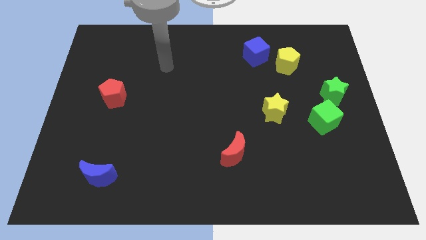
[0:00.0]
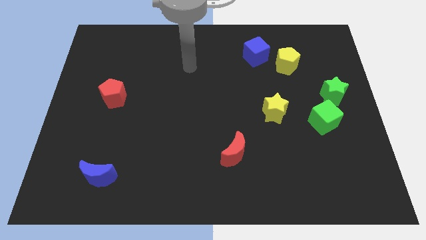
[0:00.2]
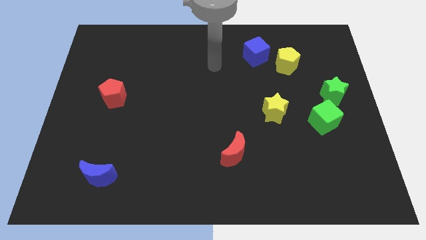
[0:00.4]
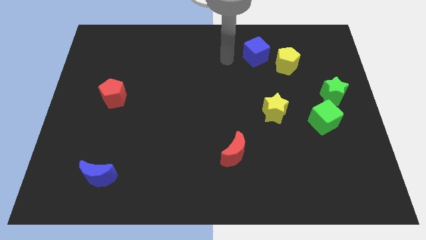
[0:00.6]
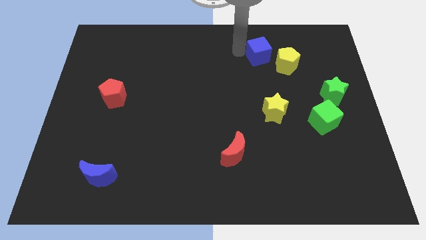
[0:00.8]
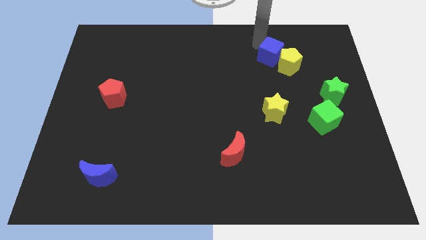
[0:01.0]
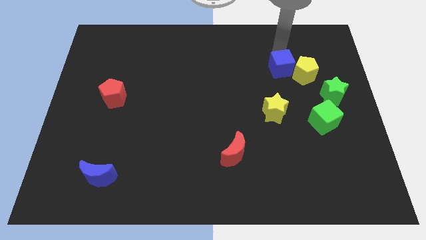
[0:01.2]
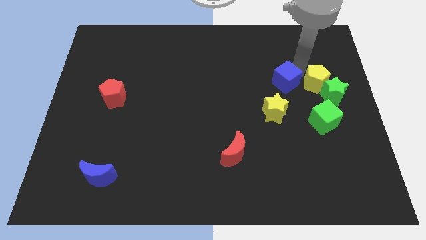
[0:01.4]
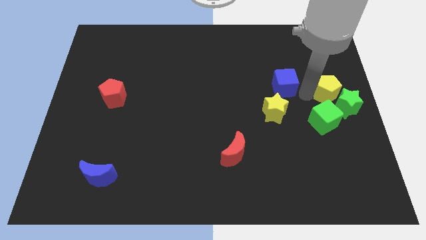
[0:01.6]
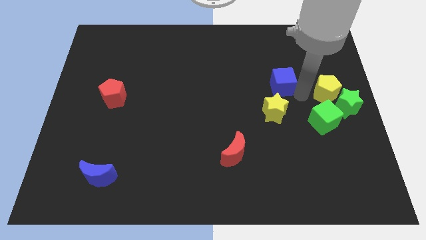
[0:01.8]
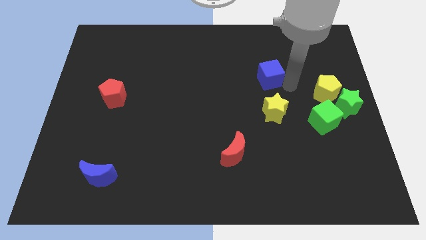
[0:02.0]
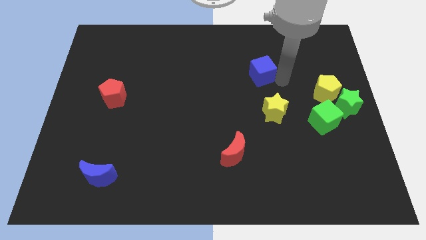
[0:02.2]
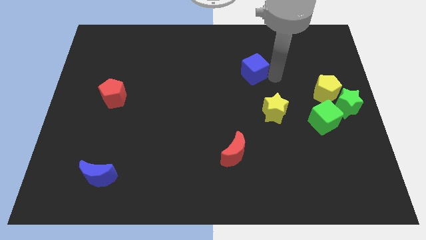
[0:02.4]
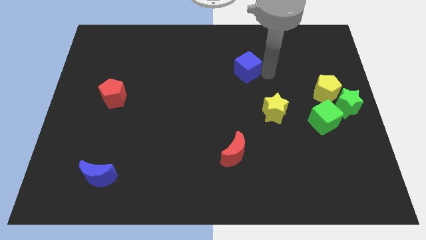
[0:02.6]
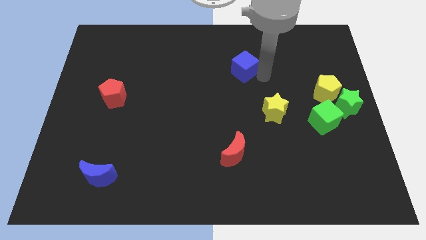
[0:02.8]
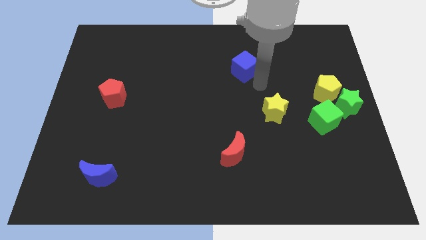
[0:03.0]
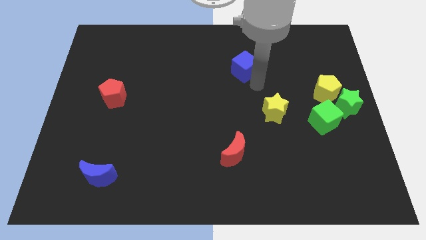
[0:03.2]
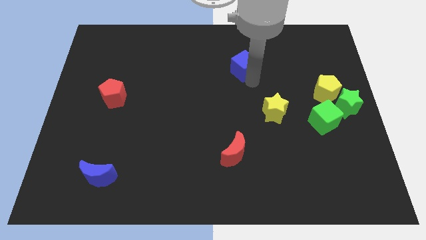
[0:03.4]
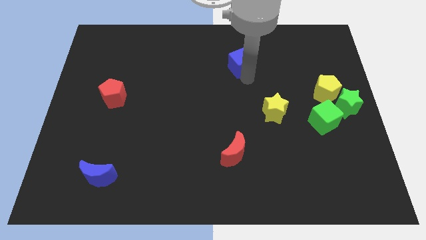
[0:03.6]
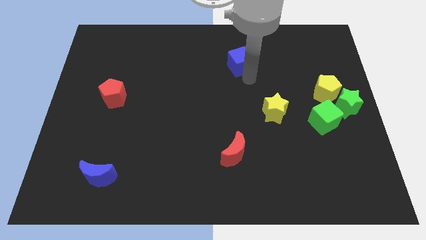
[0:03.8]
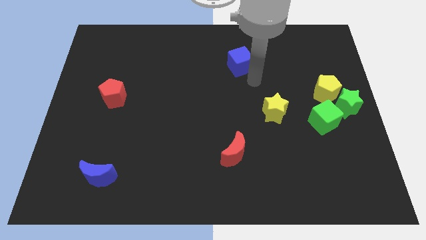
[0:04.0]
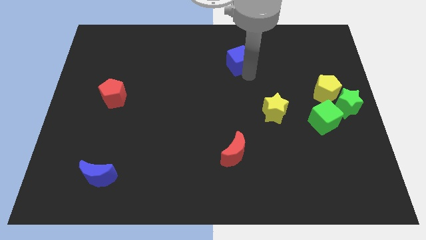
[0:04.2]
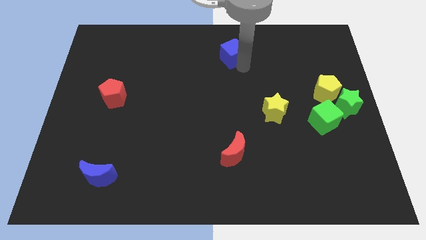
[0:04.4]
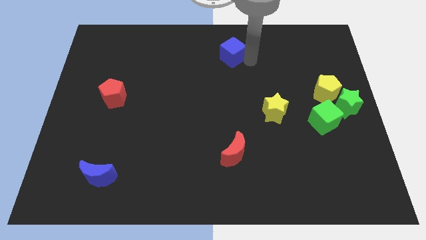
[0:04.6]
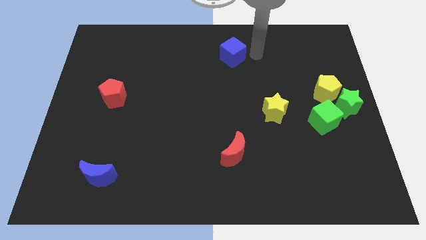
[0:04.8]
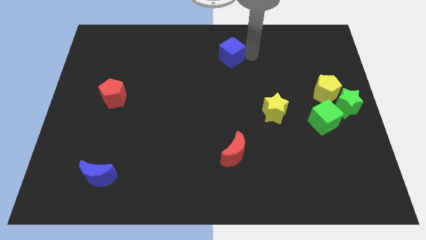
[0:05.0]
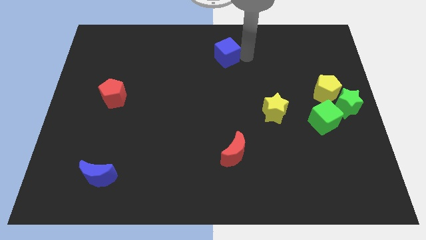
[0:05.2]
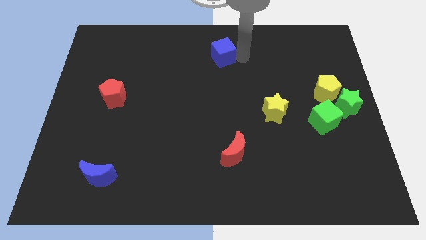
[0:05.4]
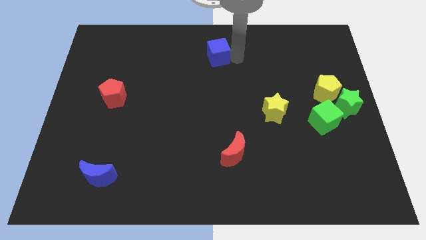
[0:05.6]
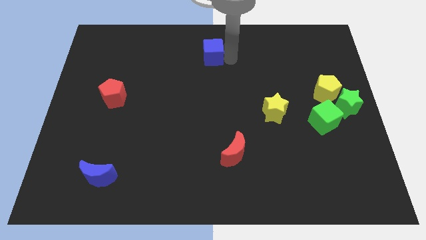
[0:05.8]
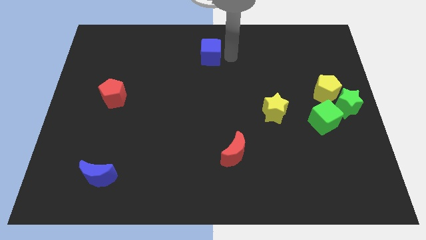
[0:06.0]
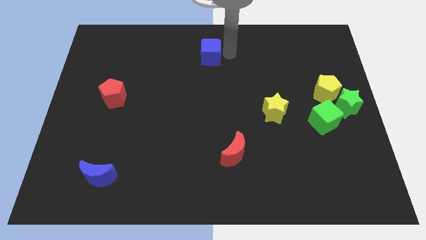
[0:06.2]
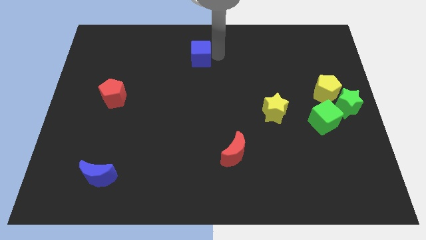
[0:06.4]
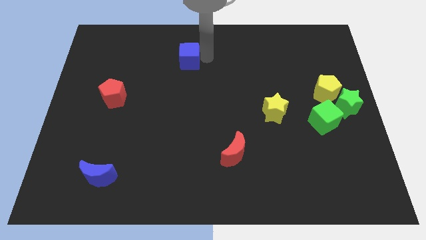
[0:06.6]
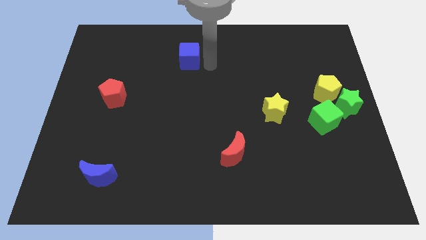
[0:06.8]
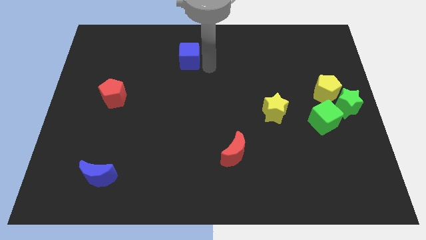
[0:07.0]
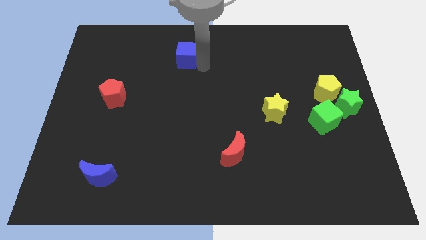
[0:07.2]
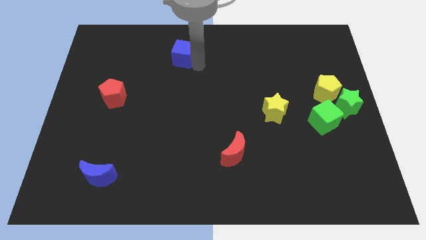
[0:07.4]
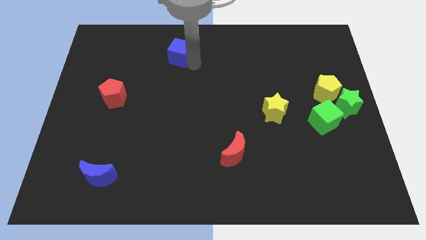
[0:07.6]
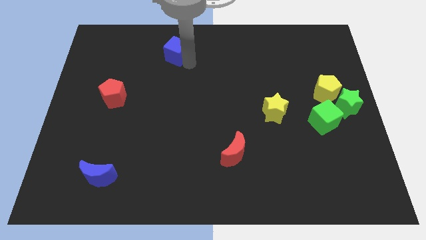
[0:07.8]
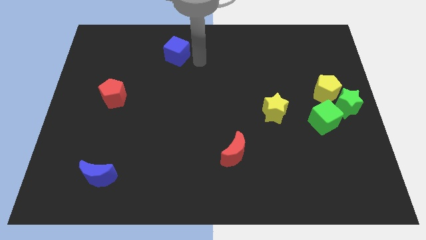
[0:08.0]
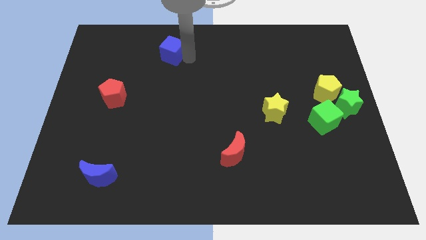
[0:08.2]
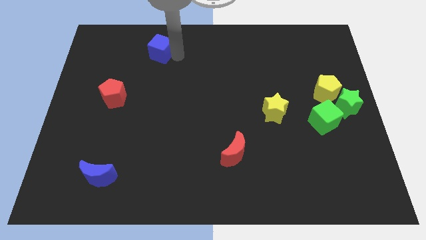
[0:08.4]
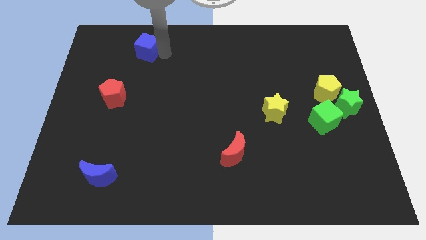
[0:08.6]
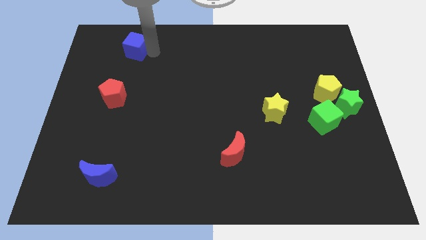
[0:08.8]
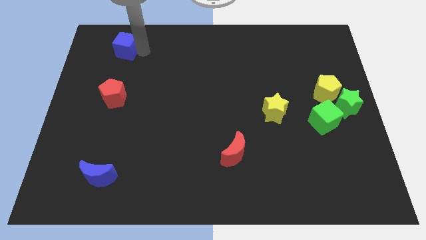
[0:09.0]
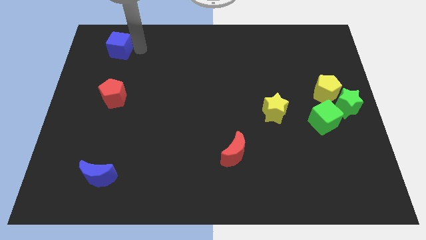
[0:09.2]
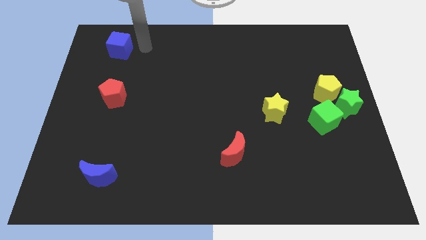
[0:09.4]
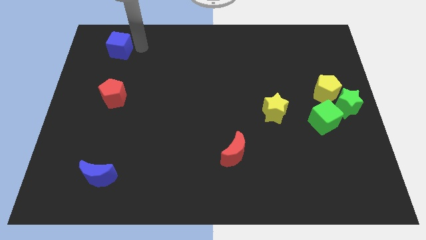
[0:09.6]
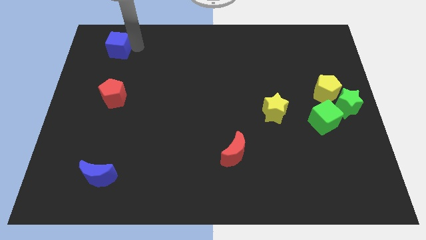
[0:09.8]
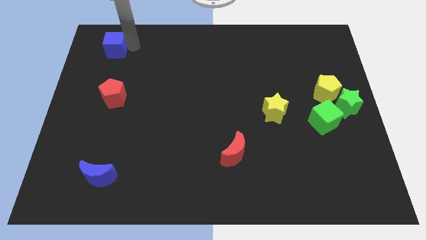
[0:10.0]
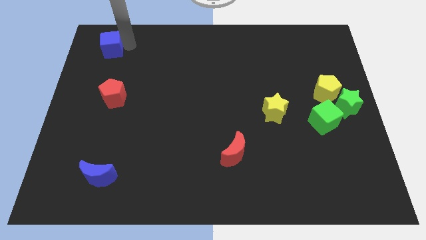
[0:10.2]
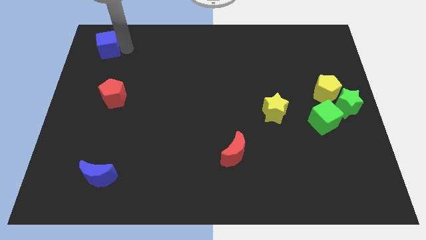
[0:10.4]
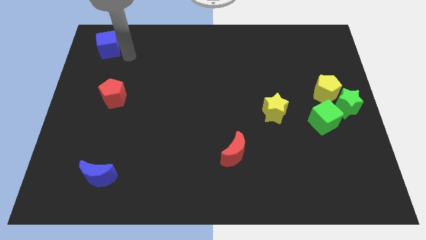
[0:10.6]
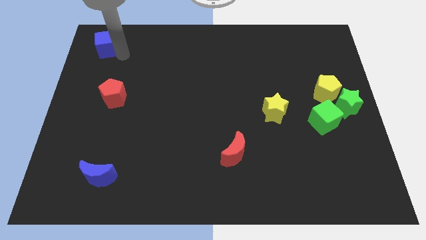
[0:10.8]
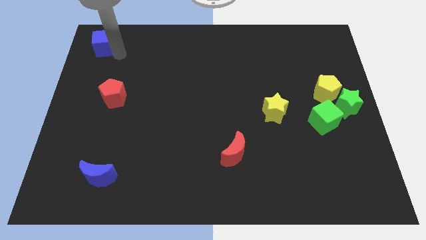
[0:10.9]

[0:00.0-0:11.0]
slide the blue cube to the top left of the board

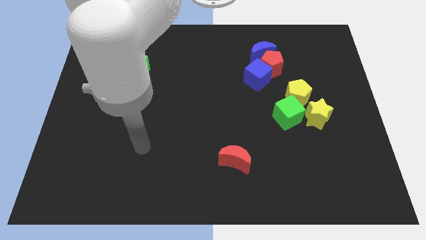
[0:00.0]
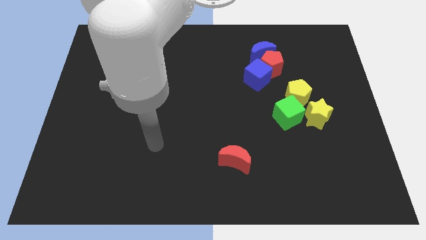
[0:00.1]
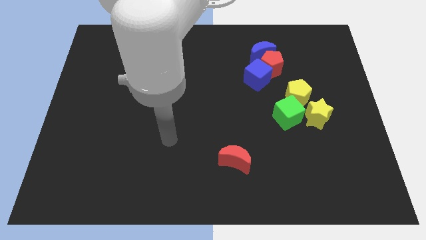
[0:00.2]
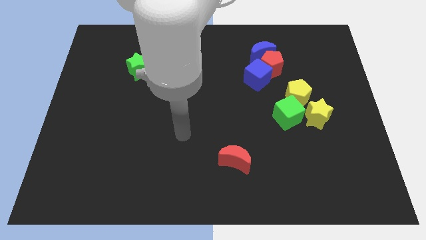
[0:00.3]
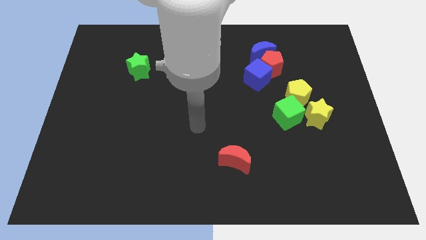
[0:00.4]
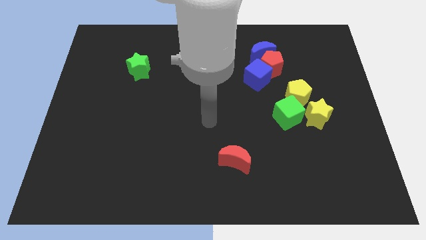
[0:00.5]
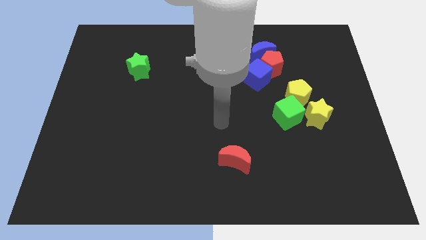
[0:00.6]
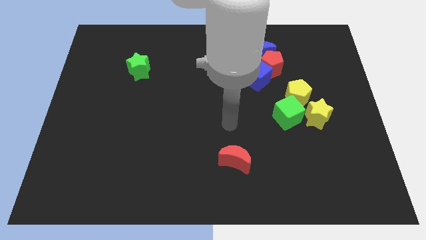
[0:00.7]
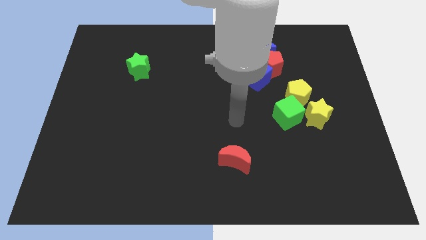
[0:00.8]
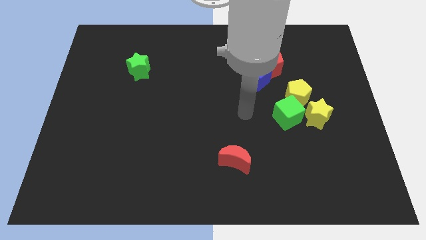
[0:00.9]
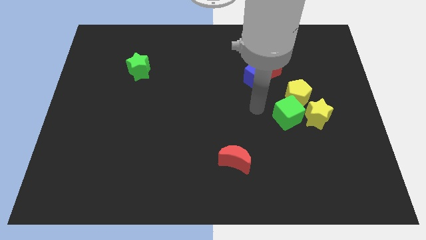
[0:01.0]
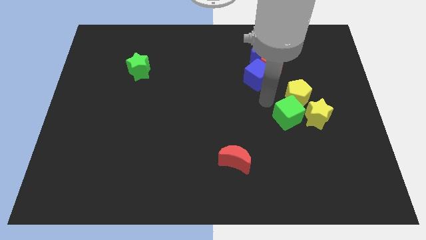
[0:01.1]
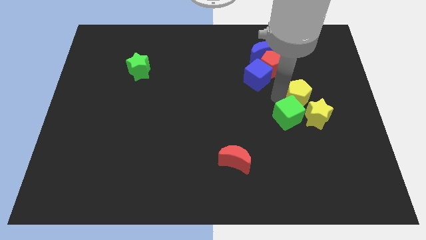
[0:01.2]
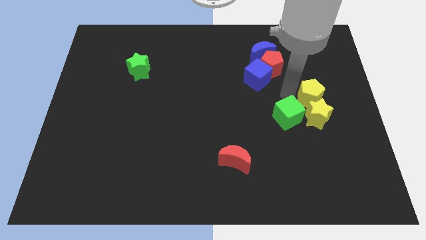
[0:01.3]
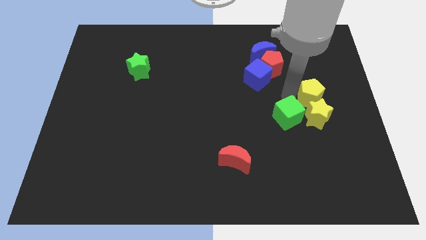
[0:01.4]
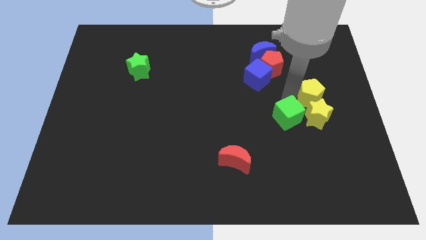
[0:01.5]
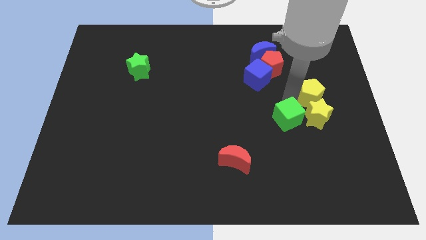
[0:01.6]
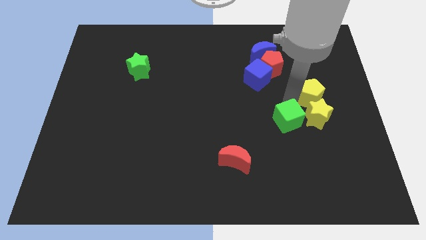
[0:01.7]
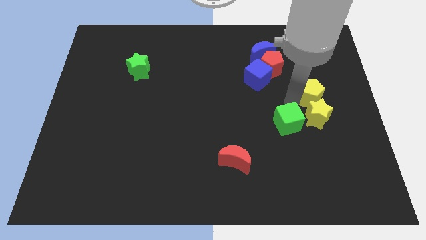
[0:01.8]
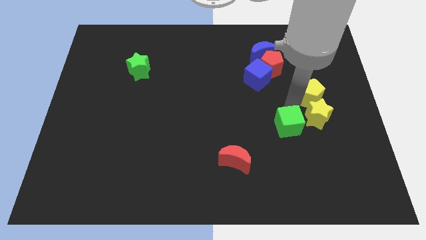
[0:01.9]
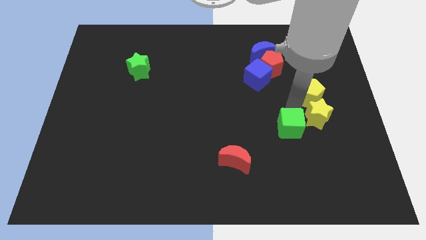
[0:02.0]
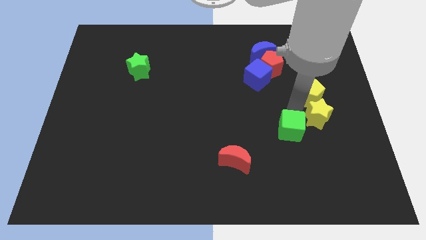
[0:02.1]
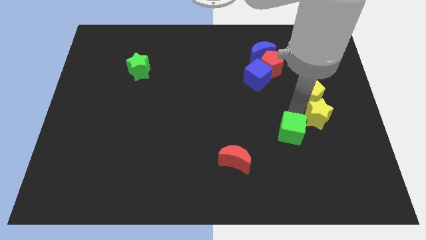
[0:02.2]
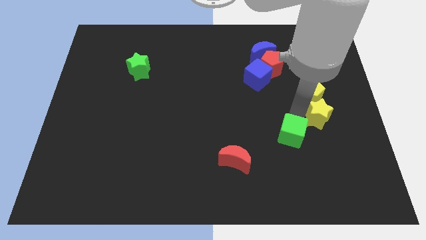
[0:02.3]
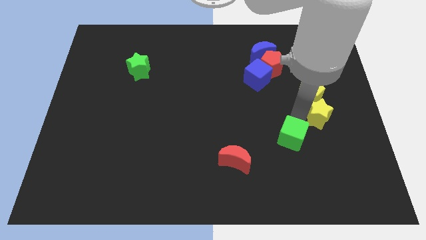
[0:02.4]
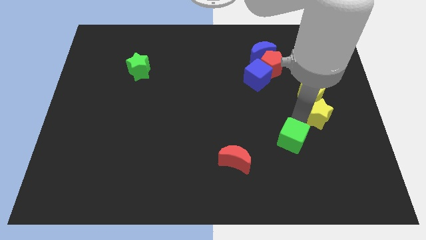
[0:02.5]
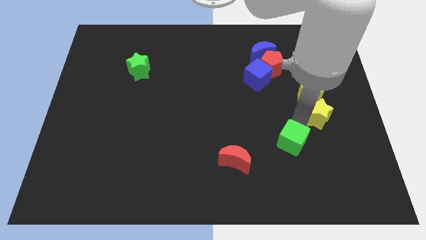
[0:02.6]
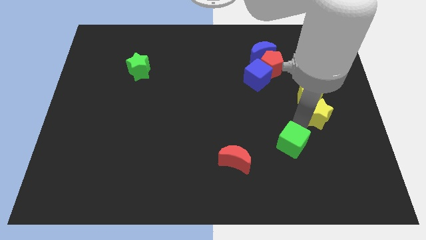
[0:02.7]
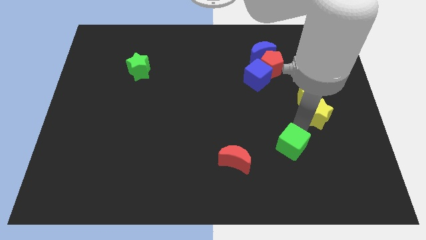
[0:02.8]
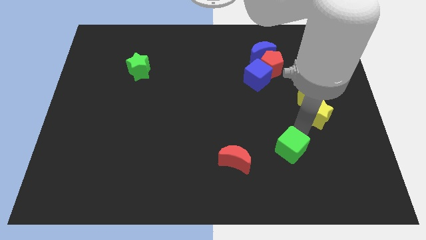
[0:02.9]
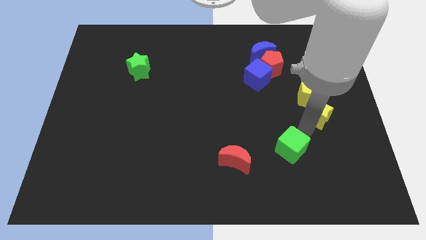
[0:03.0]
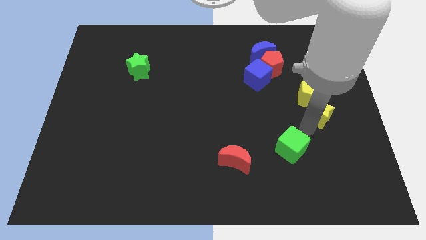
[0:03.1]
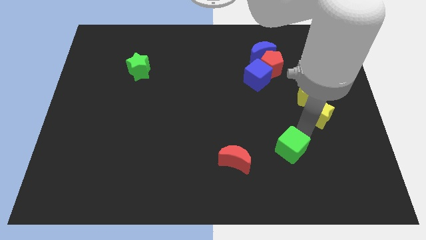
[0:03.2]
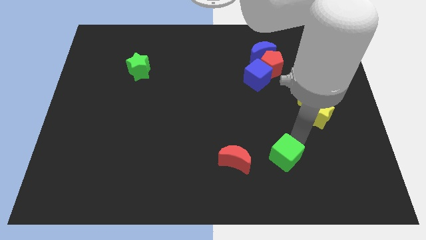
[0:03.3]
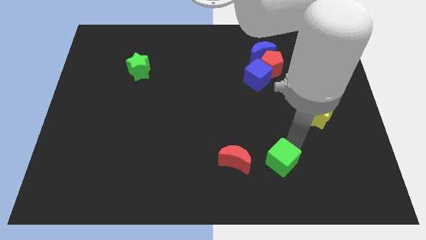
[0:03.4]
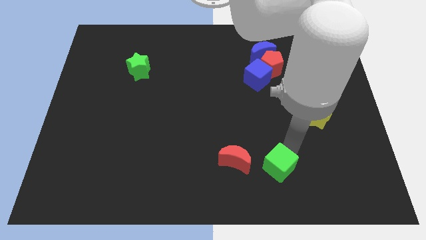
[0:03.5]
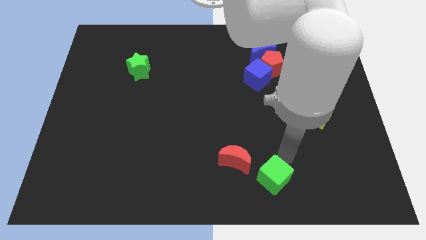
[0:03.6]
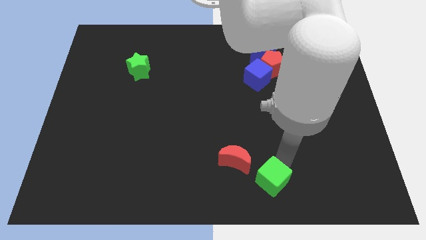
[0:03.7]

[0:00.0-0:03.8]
push the green cube to the bottom
